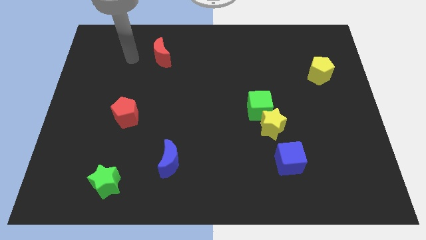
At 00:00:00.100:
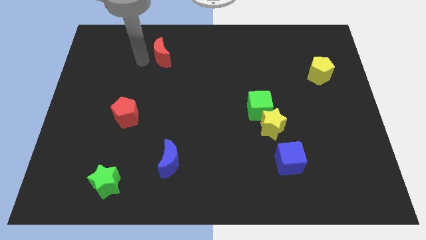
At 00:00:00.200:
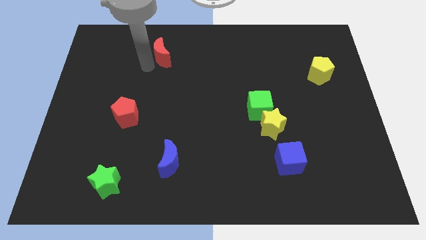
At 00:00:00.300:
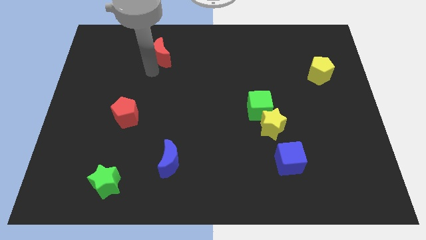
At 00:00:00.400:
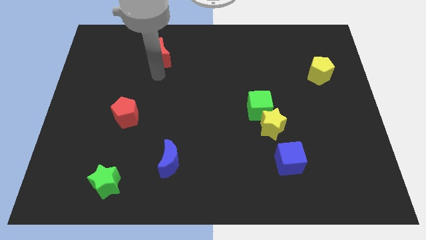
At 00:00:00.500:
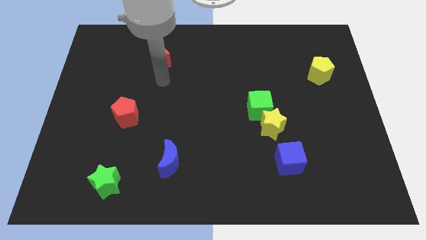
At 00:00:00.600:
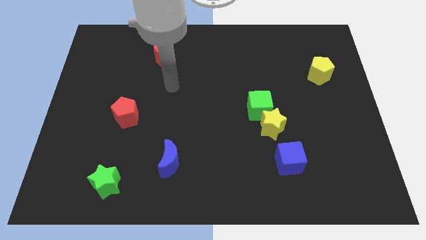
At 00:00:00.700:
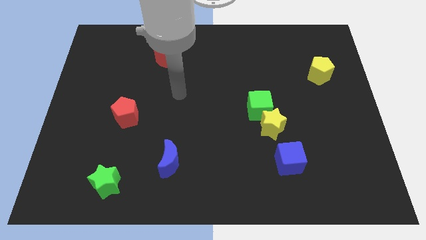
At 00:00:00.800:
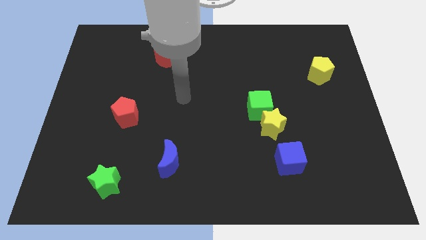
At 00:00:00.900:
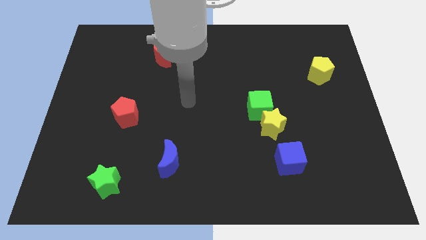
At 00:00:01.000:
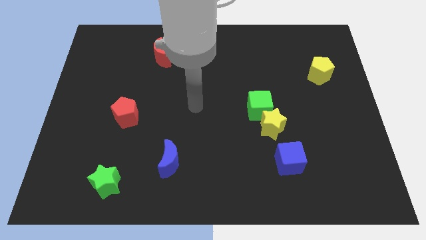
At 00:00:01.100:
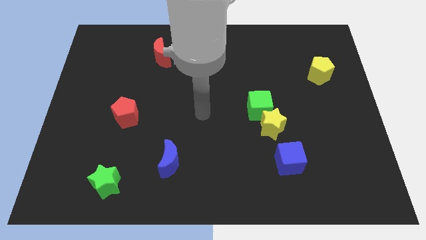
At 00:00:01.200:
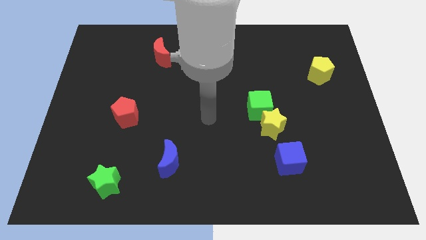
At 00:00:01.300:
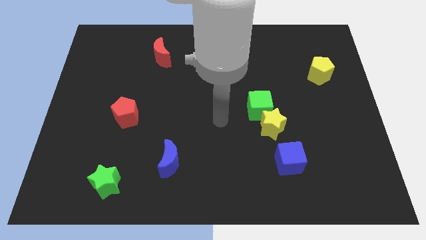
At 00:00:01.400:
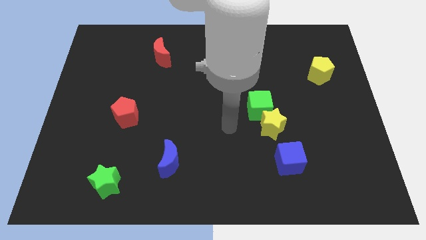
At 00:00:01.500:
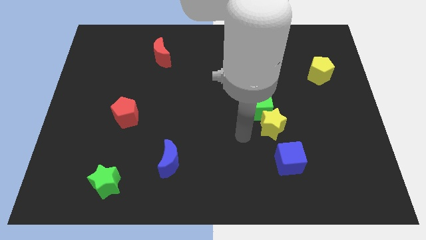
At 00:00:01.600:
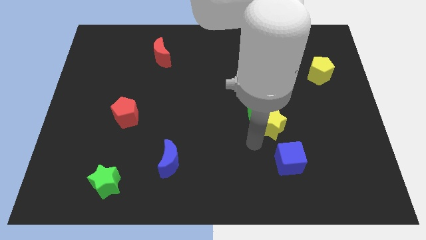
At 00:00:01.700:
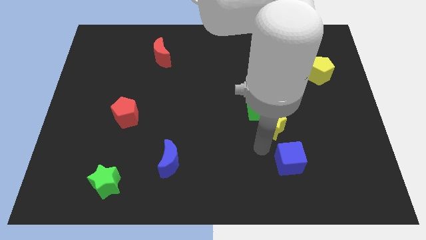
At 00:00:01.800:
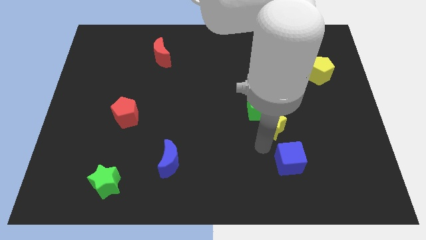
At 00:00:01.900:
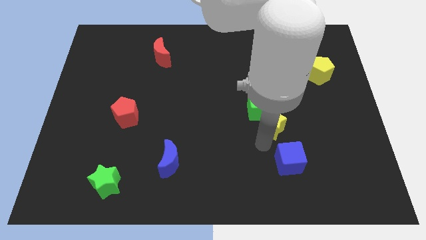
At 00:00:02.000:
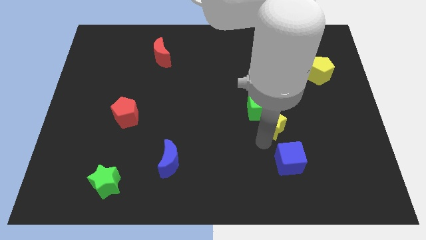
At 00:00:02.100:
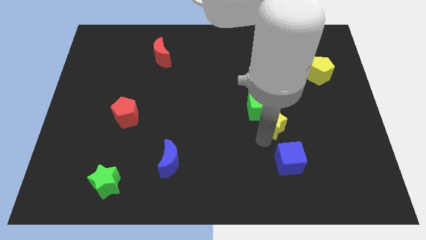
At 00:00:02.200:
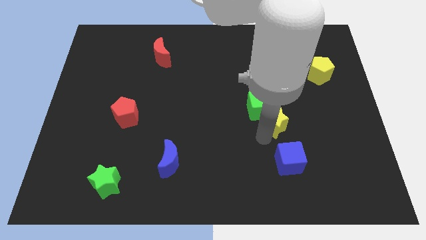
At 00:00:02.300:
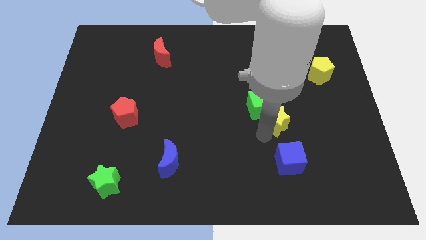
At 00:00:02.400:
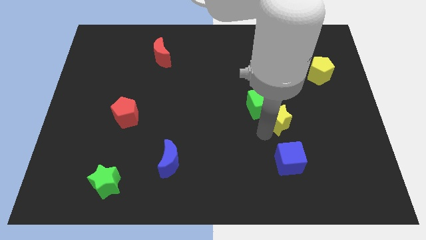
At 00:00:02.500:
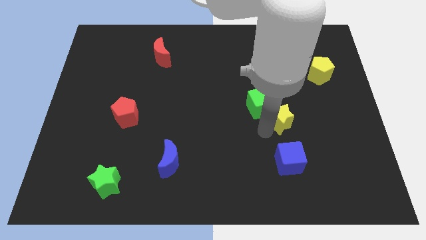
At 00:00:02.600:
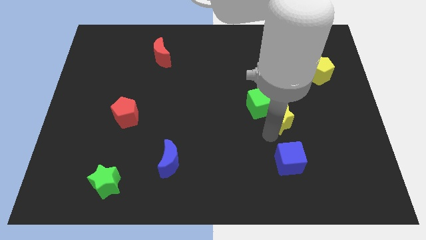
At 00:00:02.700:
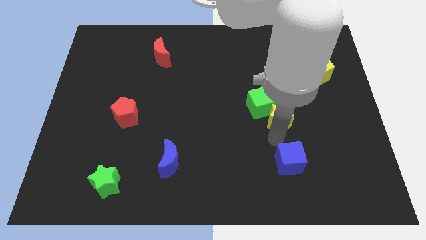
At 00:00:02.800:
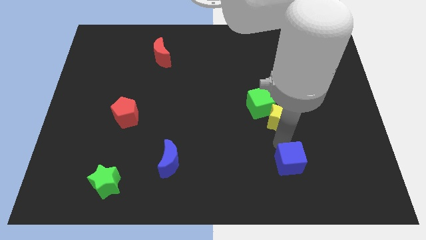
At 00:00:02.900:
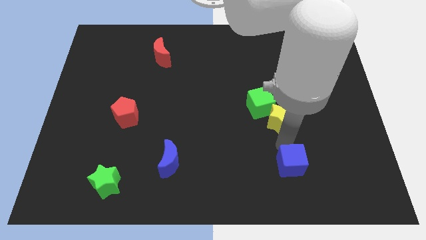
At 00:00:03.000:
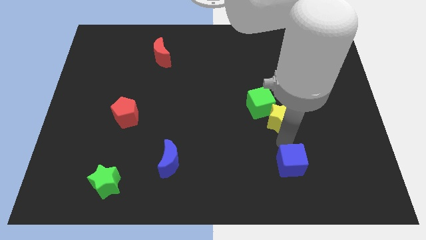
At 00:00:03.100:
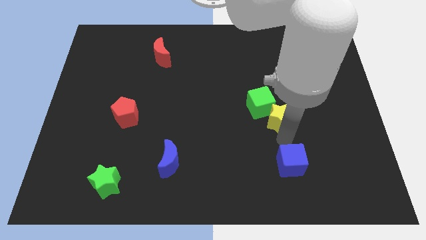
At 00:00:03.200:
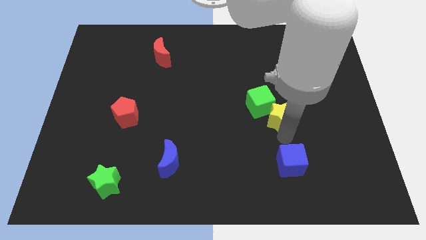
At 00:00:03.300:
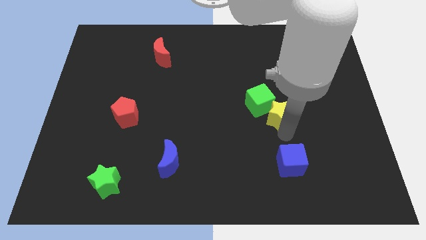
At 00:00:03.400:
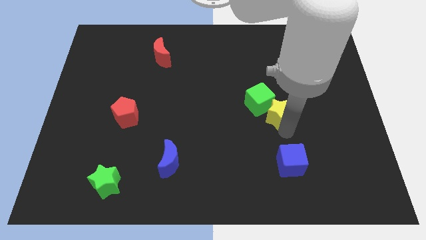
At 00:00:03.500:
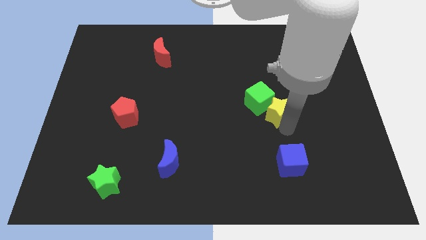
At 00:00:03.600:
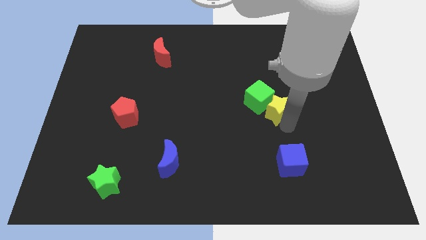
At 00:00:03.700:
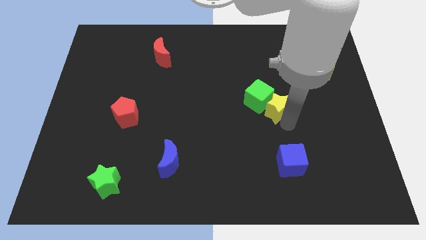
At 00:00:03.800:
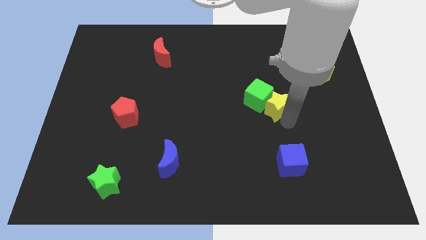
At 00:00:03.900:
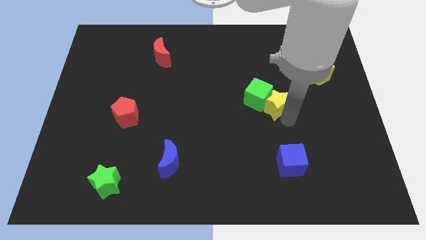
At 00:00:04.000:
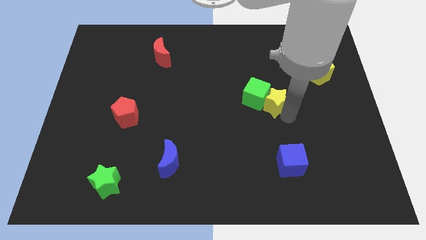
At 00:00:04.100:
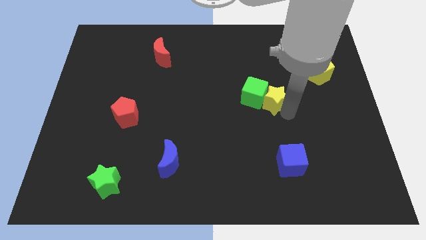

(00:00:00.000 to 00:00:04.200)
slide the yellow star up a little bit

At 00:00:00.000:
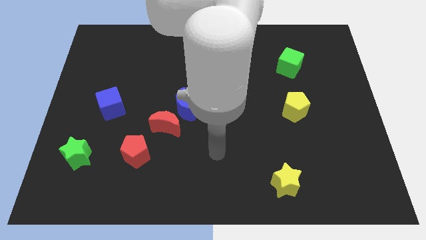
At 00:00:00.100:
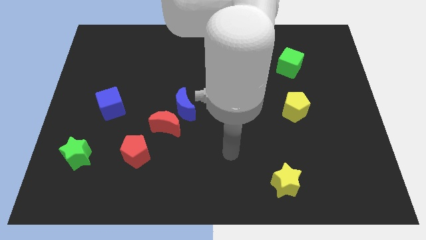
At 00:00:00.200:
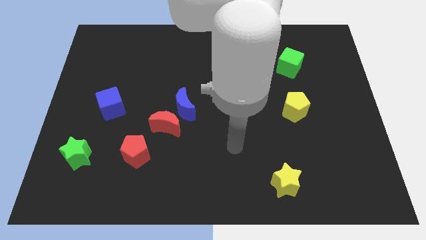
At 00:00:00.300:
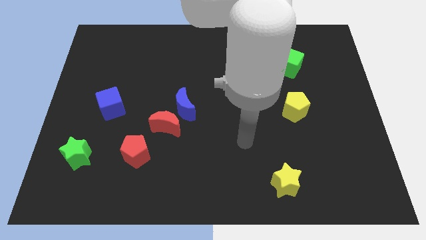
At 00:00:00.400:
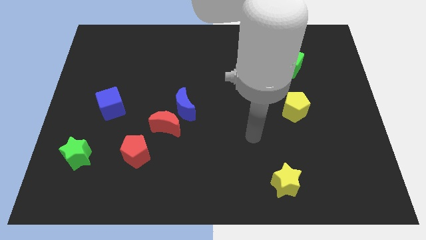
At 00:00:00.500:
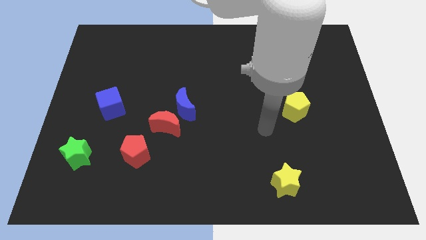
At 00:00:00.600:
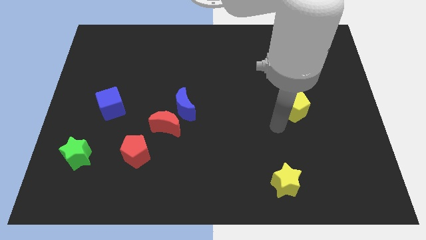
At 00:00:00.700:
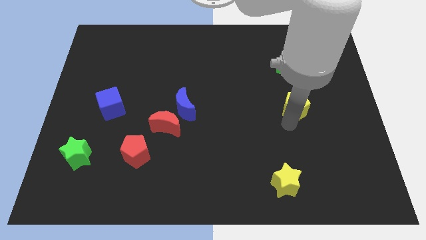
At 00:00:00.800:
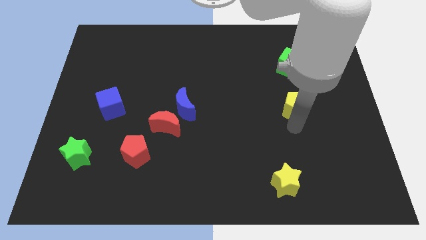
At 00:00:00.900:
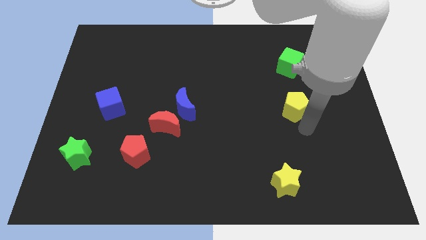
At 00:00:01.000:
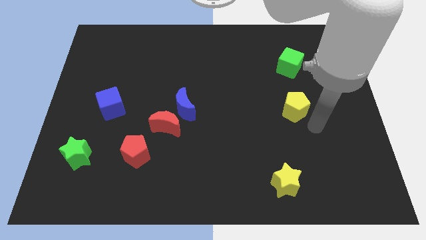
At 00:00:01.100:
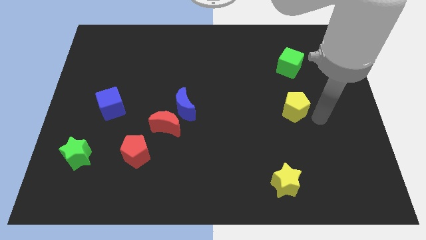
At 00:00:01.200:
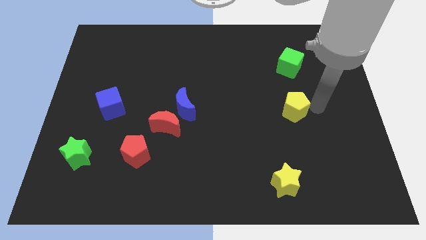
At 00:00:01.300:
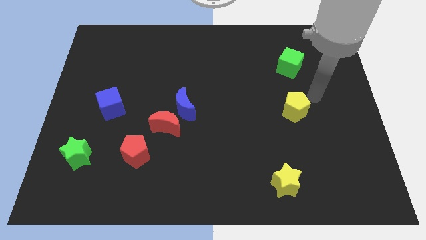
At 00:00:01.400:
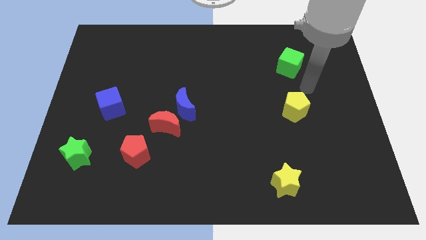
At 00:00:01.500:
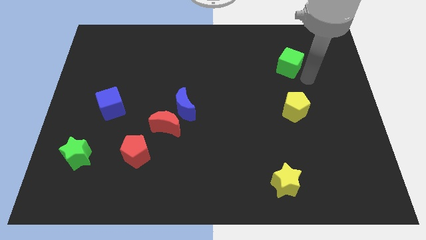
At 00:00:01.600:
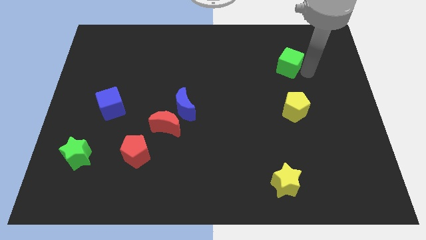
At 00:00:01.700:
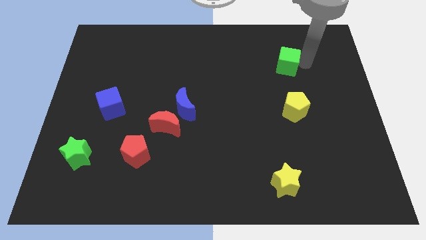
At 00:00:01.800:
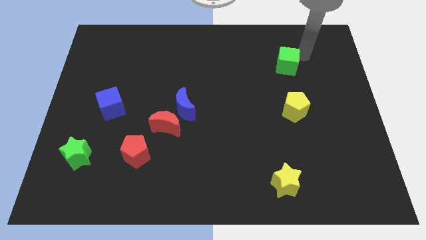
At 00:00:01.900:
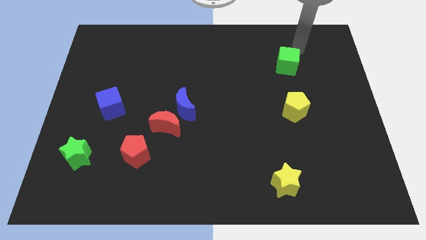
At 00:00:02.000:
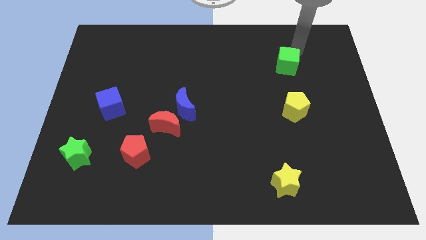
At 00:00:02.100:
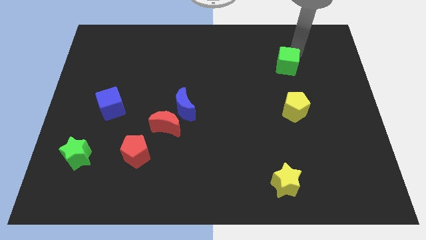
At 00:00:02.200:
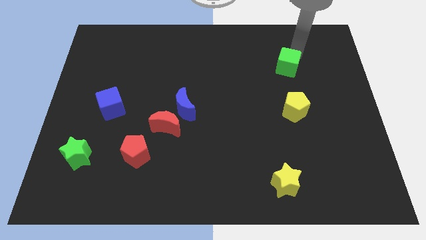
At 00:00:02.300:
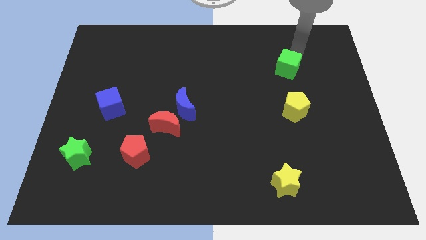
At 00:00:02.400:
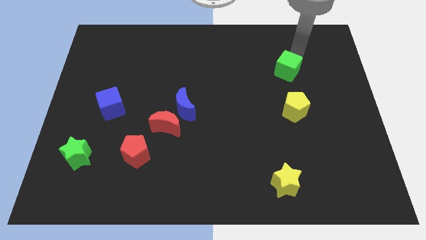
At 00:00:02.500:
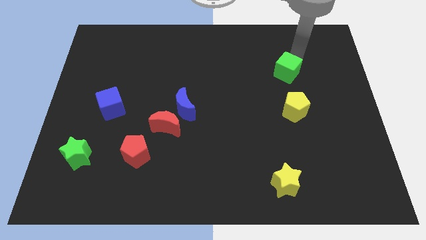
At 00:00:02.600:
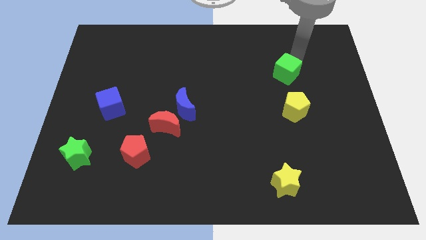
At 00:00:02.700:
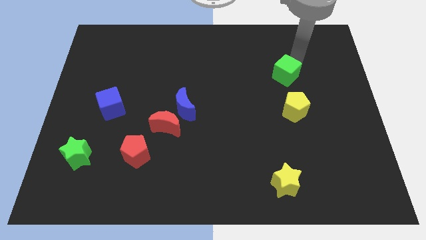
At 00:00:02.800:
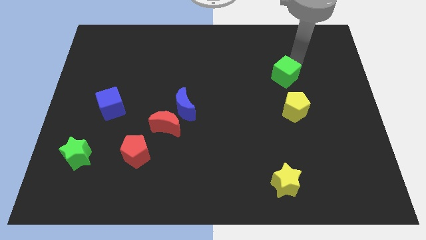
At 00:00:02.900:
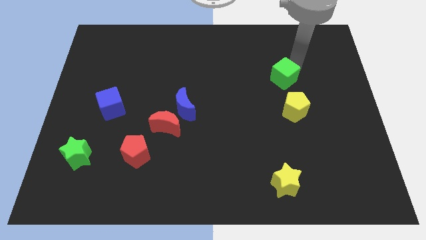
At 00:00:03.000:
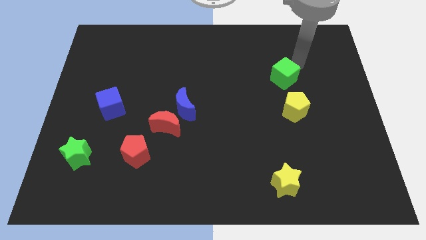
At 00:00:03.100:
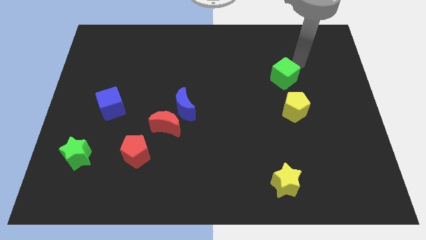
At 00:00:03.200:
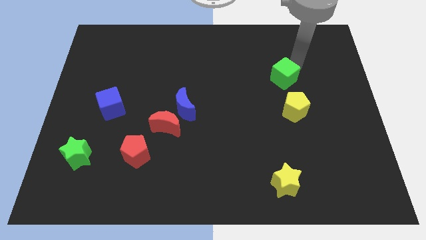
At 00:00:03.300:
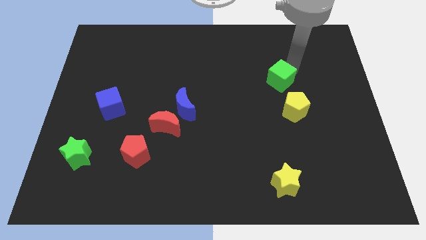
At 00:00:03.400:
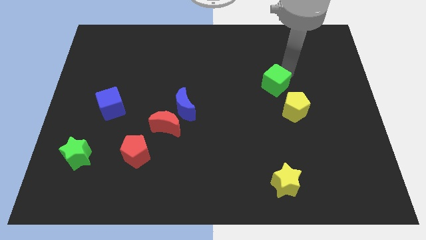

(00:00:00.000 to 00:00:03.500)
slide the green cube a bit diagonally downwards and to the left
